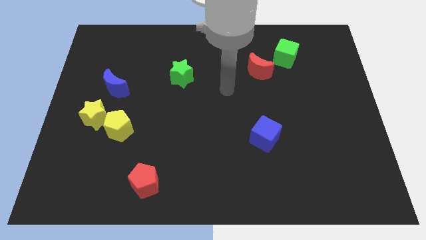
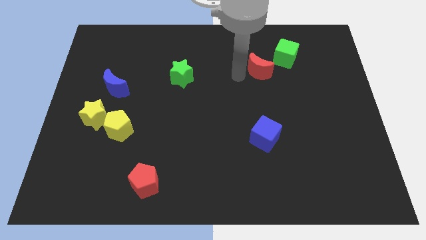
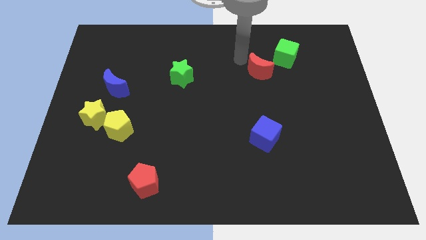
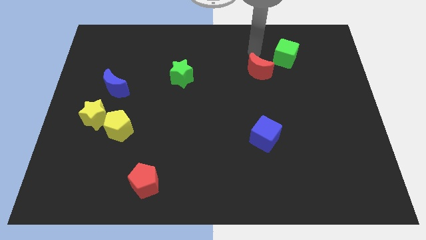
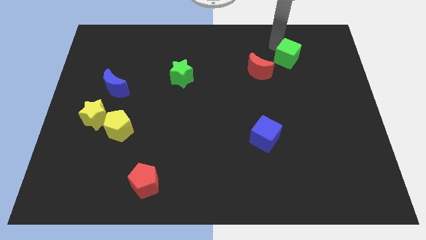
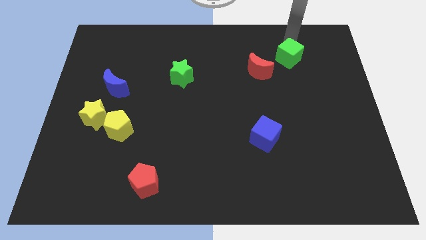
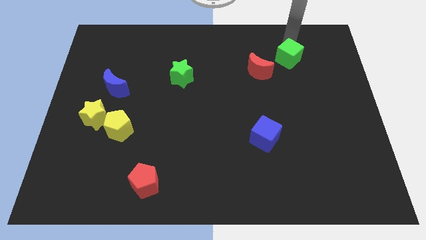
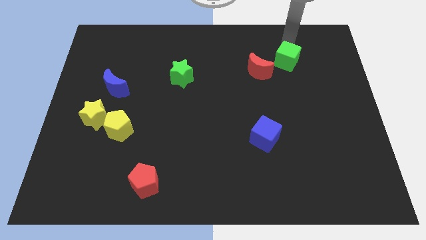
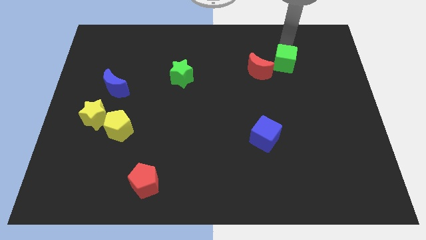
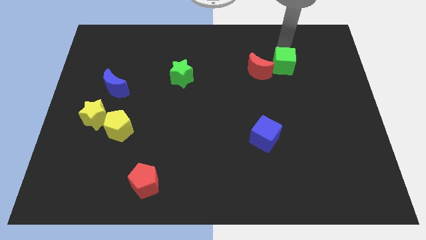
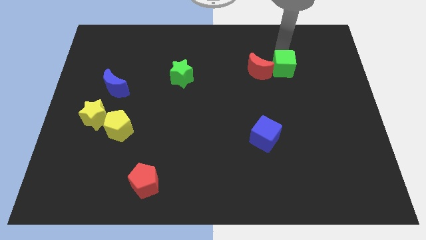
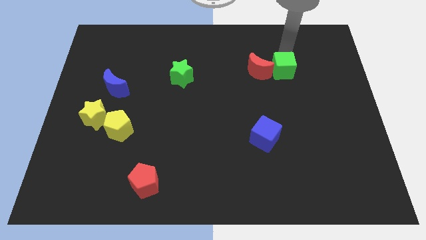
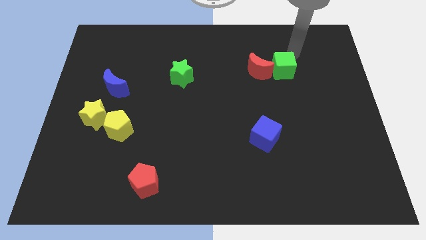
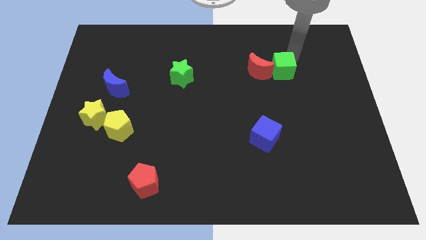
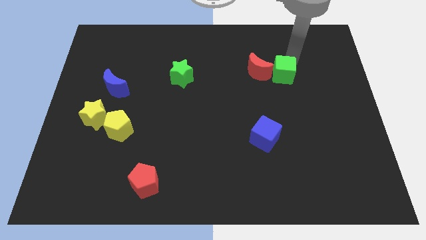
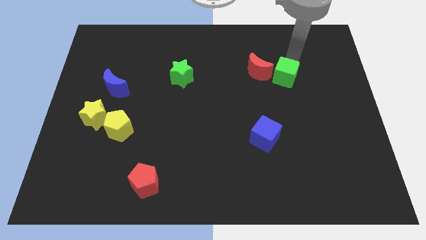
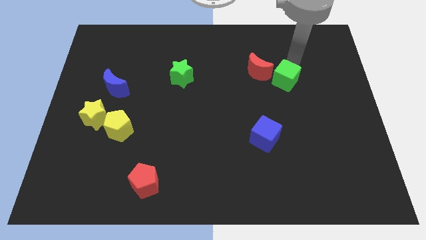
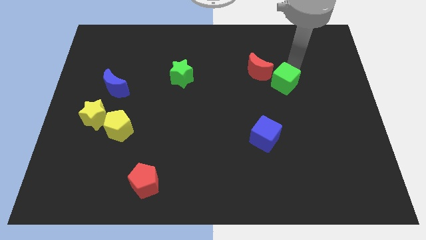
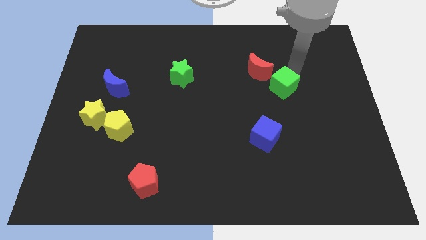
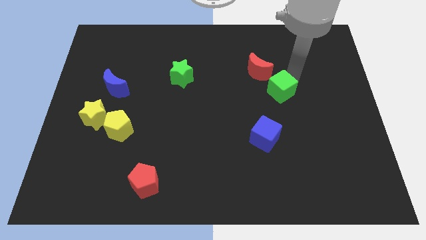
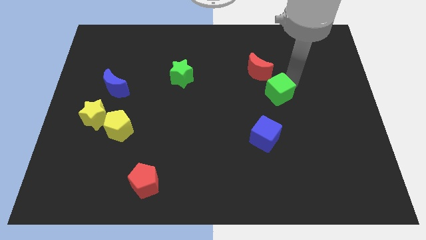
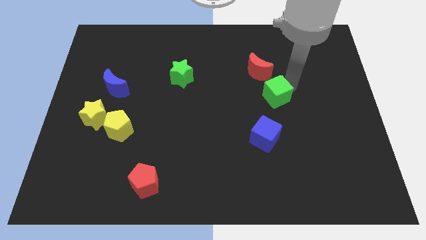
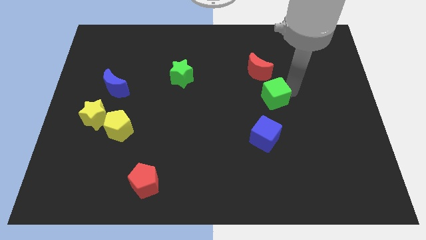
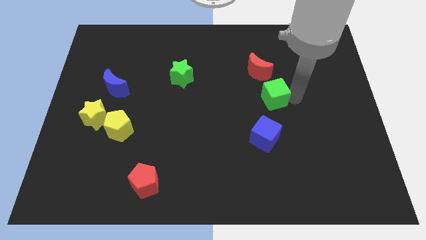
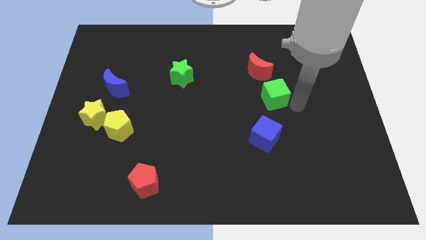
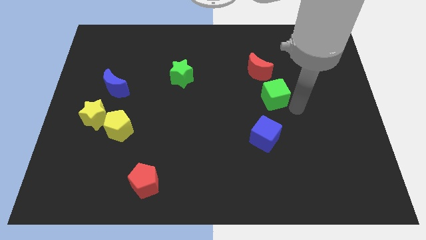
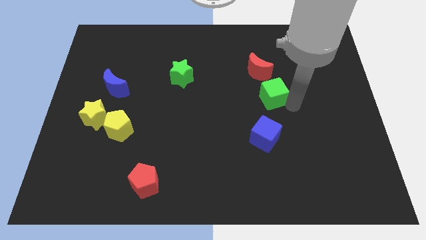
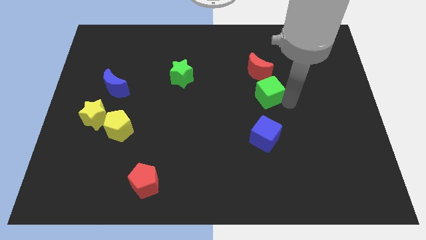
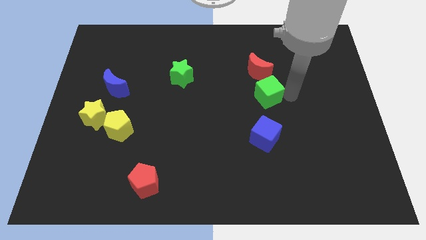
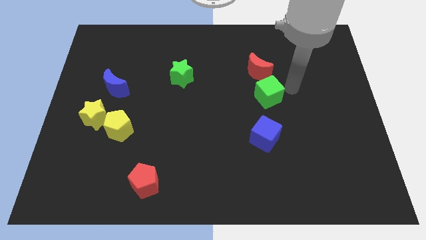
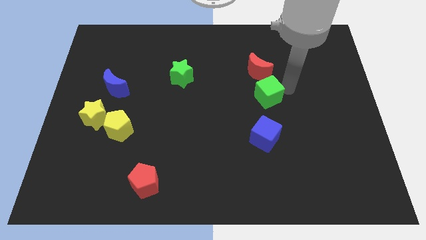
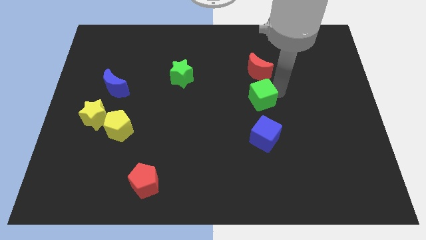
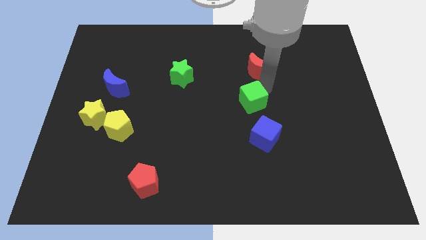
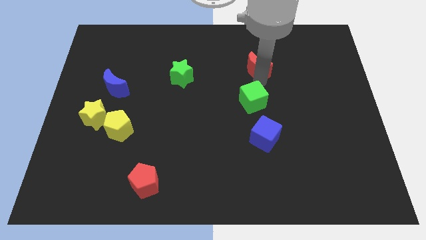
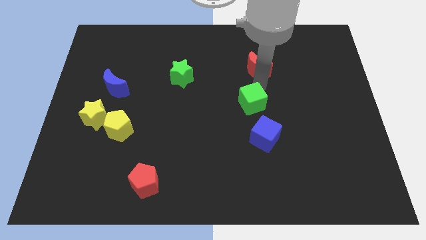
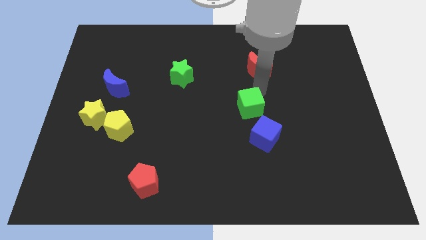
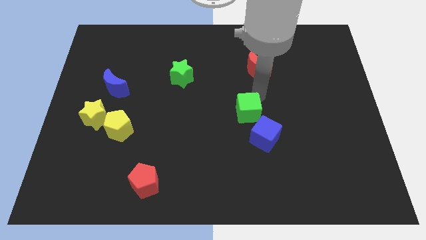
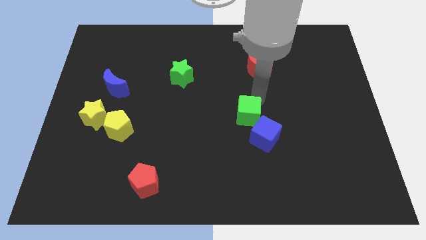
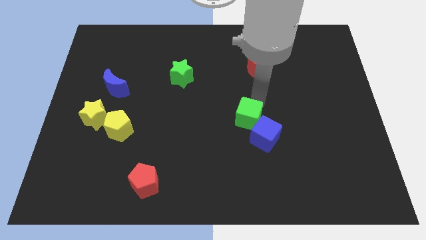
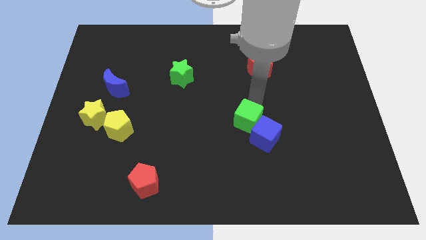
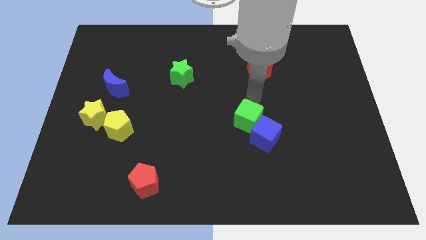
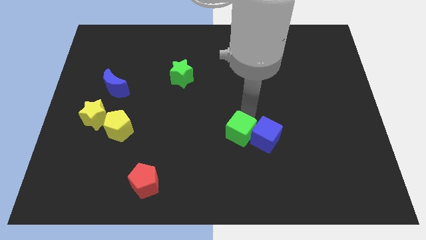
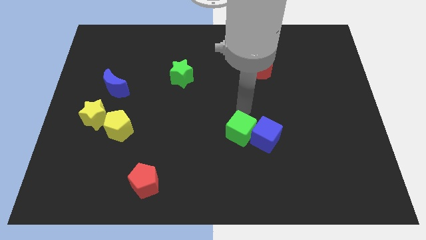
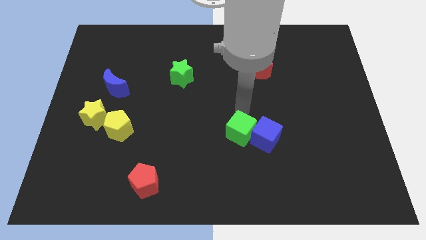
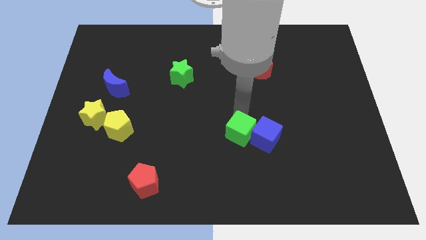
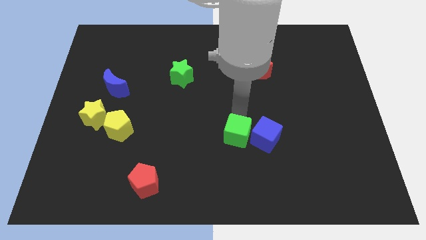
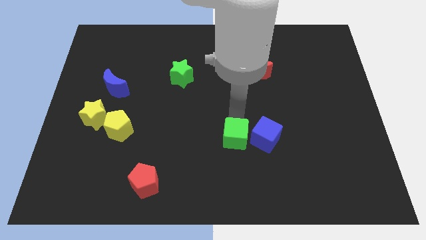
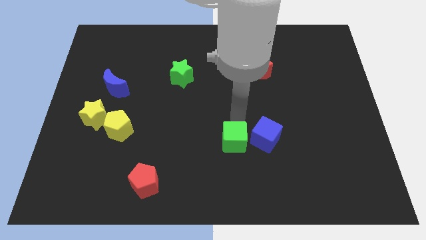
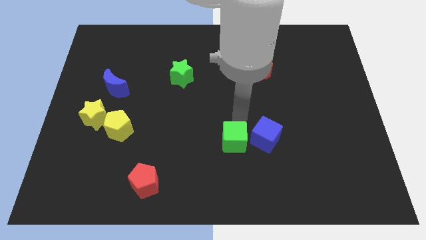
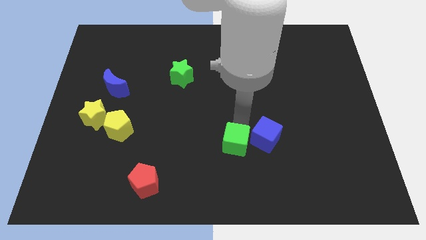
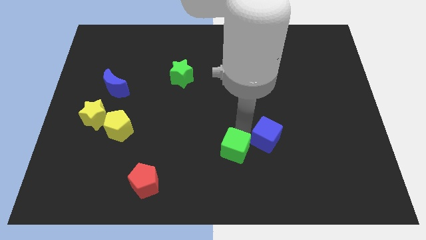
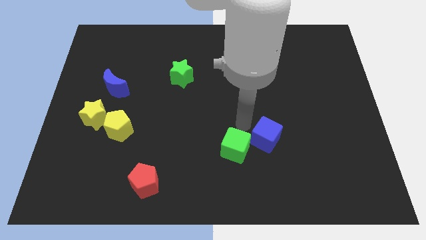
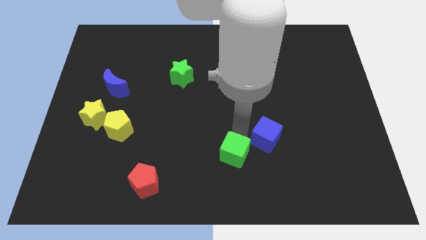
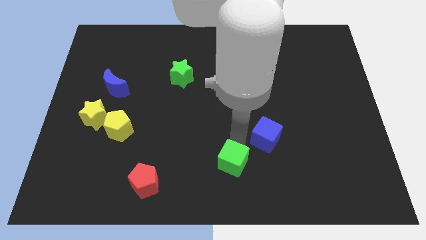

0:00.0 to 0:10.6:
slide the green cube to the bottom side

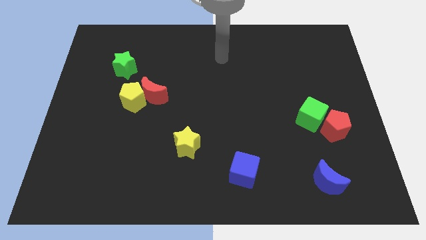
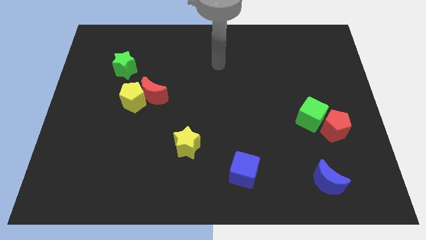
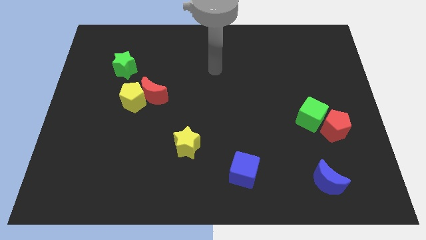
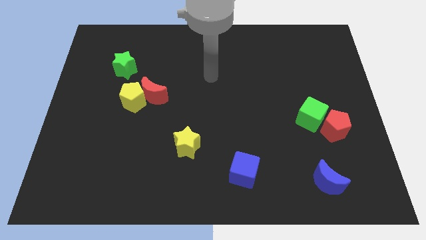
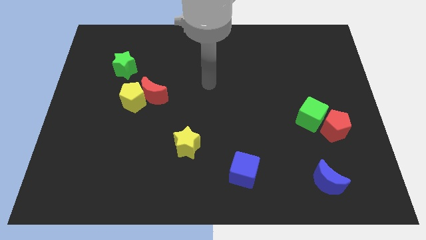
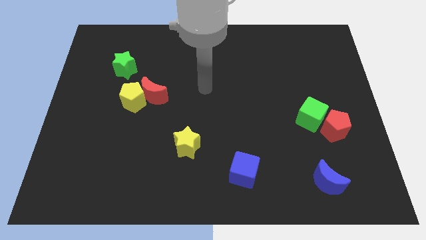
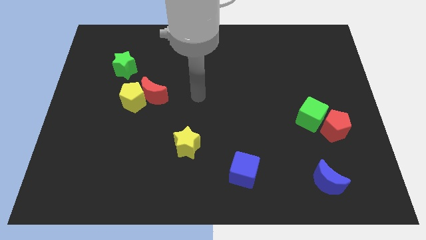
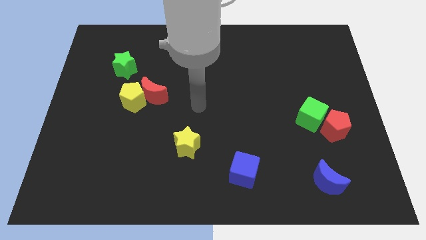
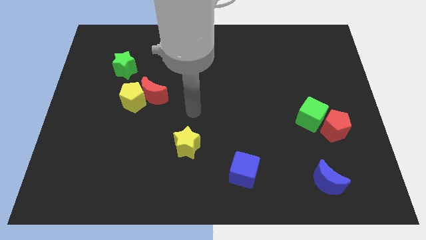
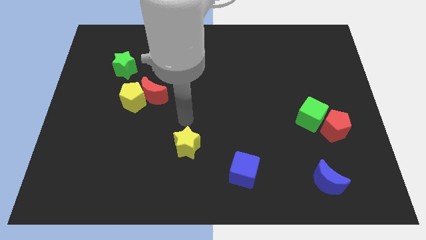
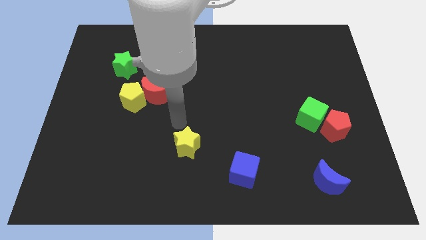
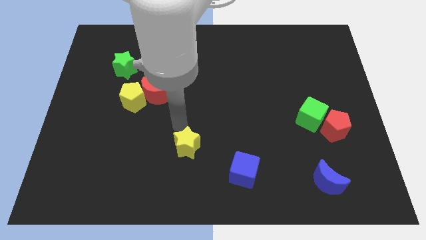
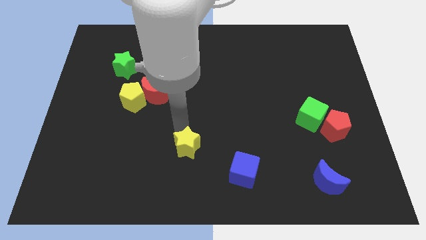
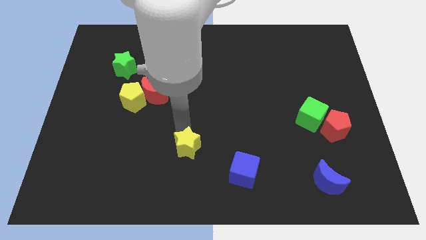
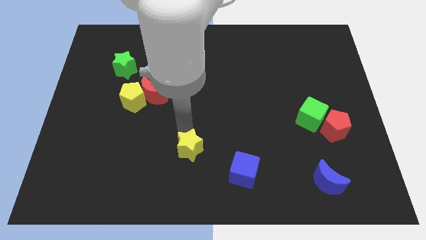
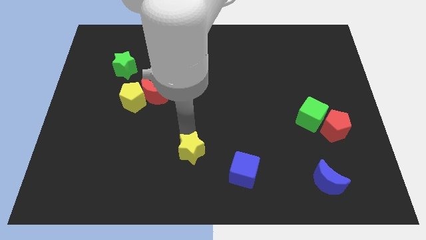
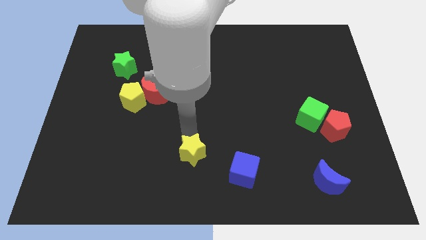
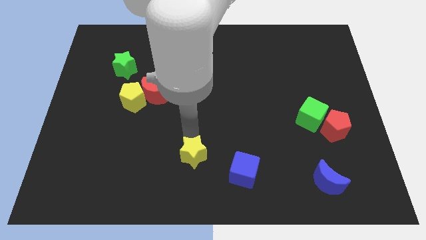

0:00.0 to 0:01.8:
put the yellow star to the bottom side
